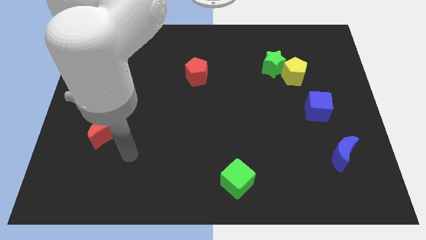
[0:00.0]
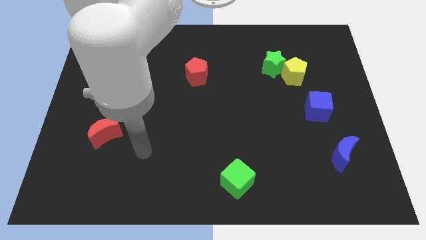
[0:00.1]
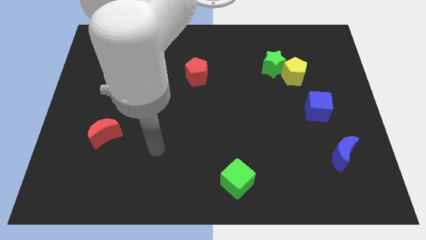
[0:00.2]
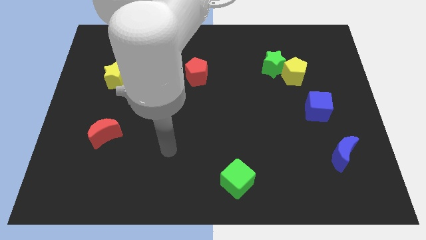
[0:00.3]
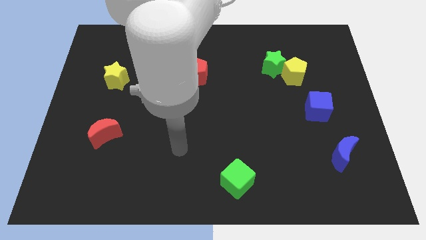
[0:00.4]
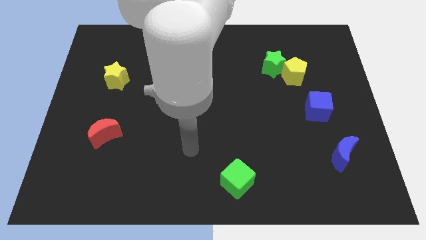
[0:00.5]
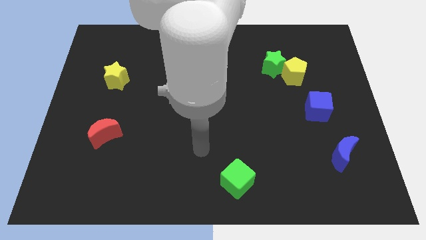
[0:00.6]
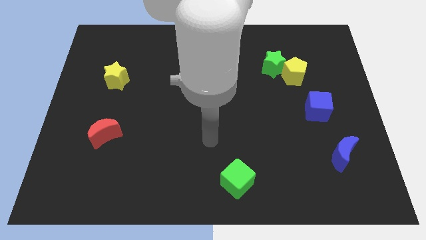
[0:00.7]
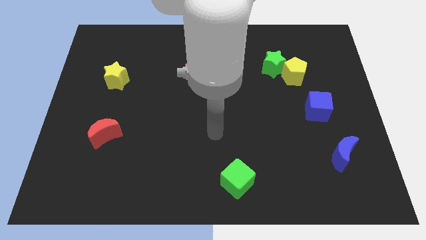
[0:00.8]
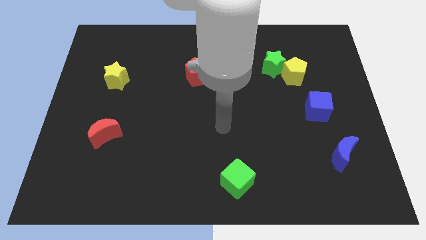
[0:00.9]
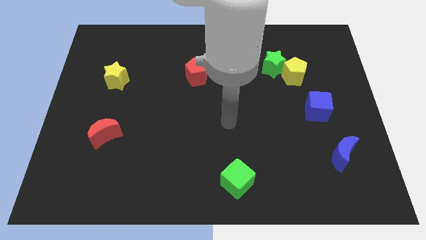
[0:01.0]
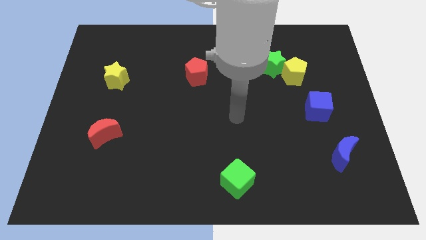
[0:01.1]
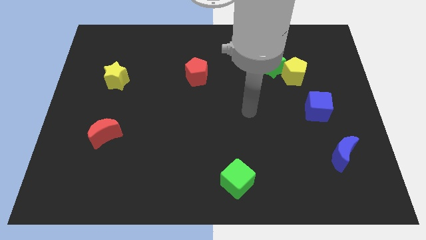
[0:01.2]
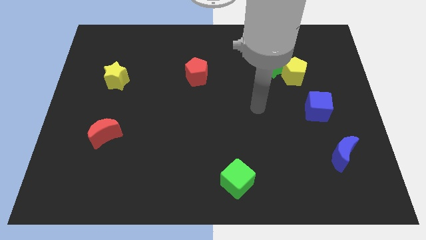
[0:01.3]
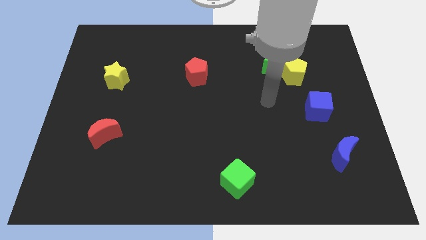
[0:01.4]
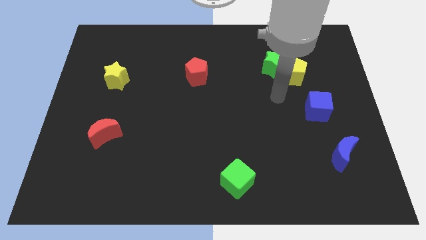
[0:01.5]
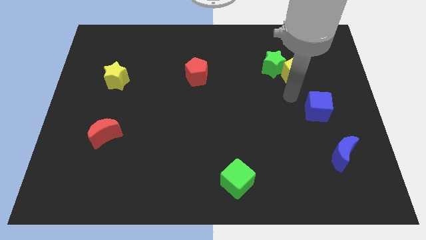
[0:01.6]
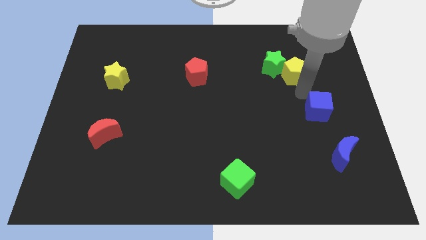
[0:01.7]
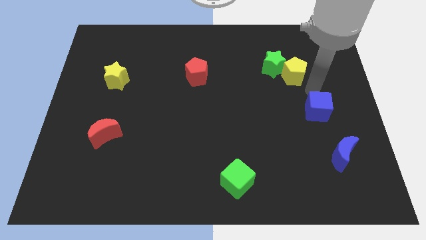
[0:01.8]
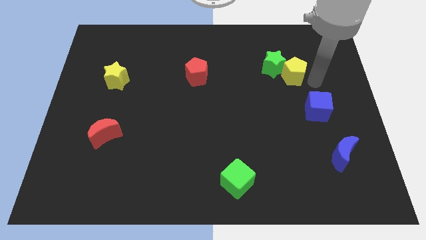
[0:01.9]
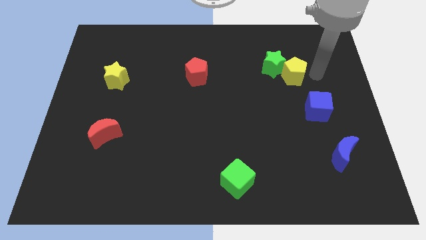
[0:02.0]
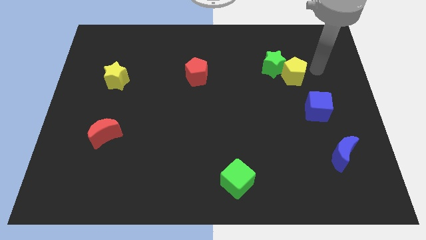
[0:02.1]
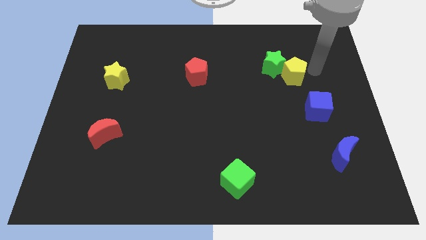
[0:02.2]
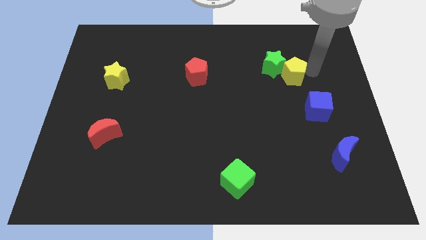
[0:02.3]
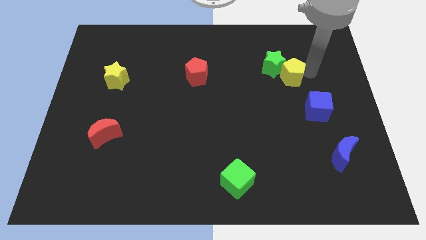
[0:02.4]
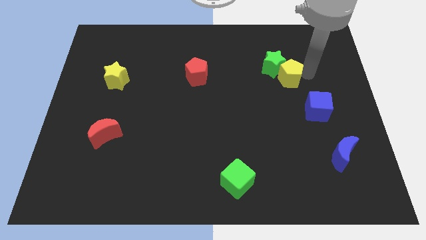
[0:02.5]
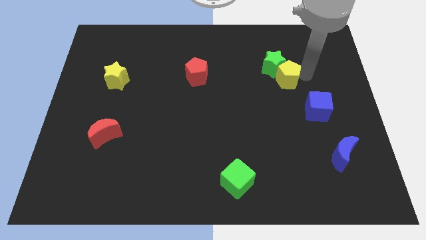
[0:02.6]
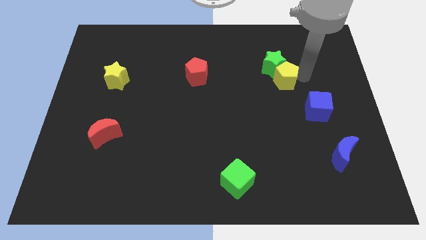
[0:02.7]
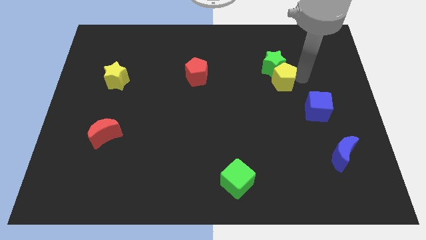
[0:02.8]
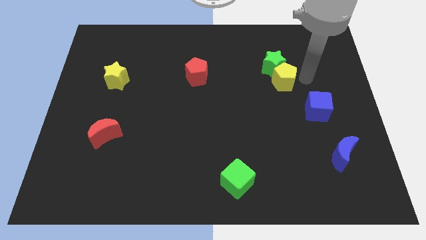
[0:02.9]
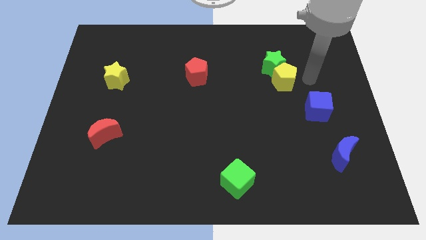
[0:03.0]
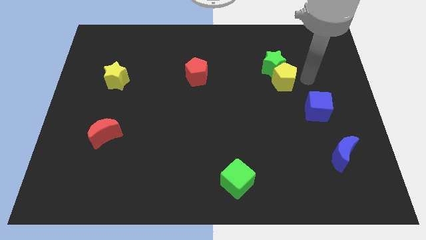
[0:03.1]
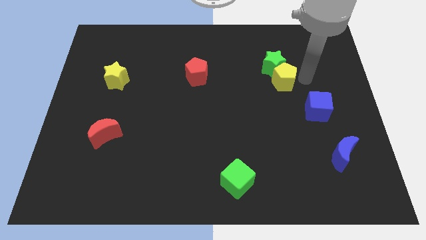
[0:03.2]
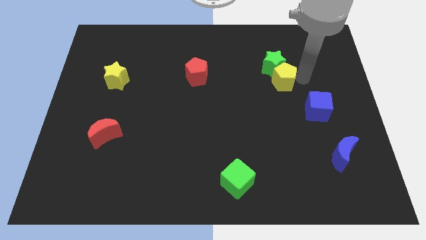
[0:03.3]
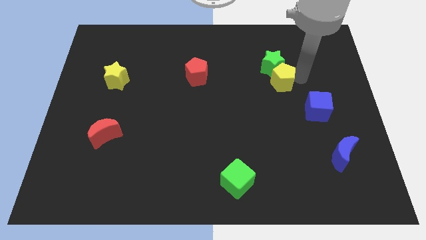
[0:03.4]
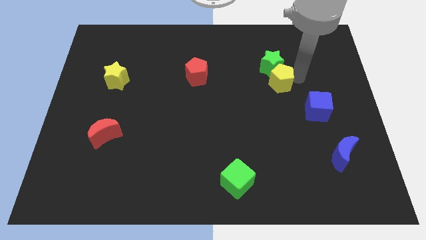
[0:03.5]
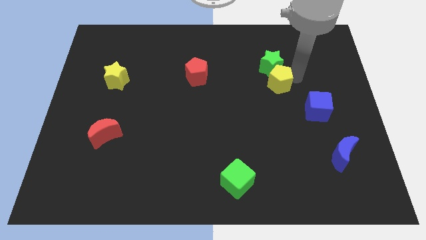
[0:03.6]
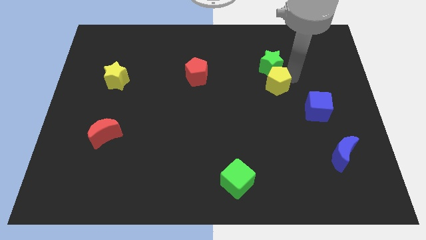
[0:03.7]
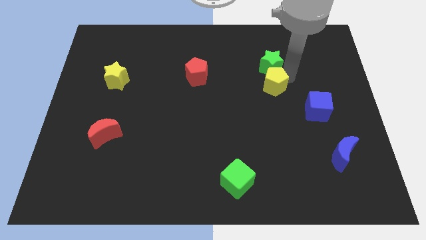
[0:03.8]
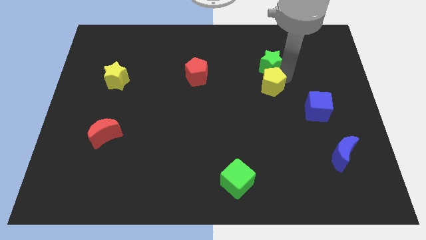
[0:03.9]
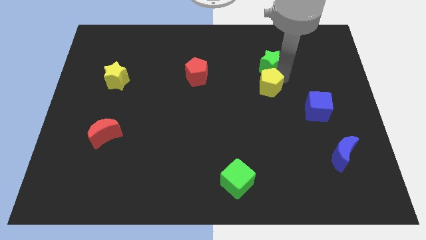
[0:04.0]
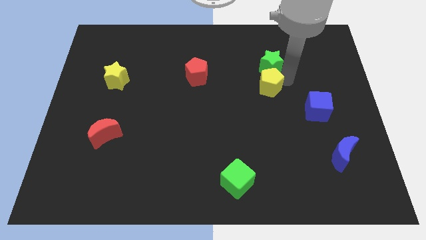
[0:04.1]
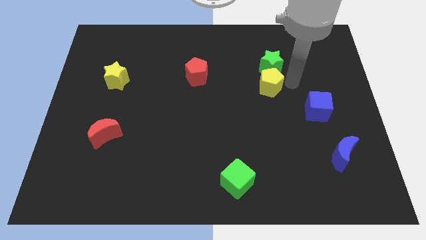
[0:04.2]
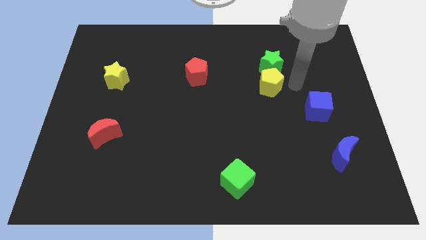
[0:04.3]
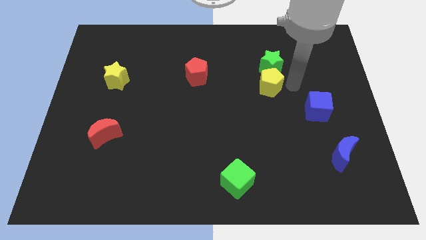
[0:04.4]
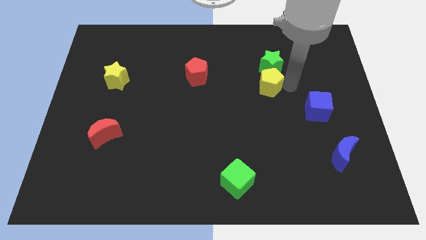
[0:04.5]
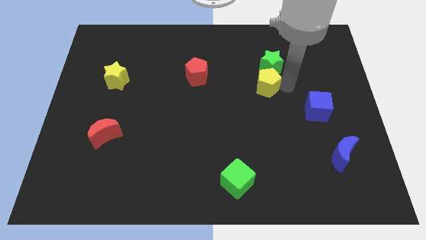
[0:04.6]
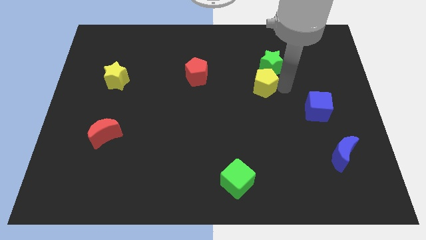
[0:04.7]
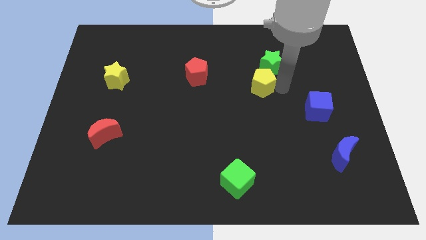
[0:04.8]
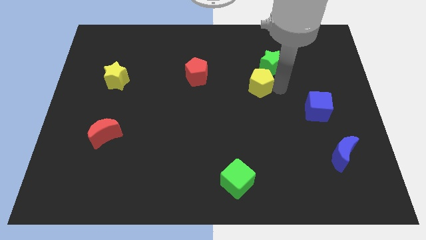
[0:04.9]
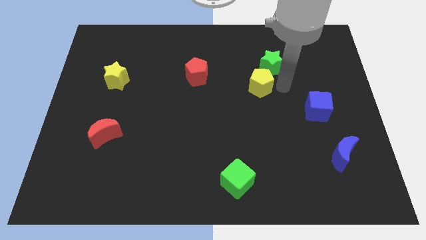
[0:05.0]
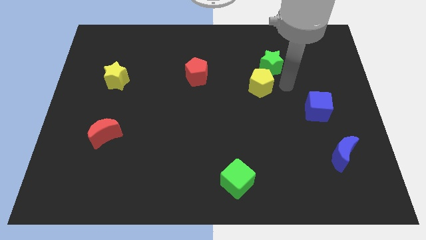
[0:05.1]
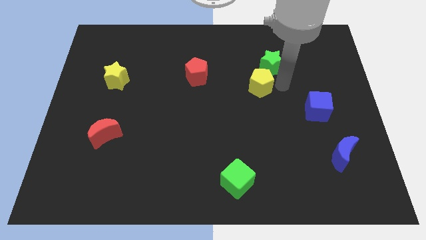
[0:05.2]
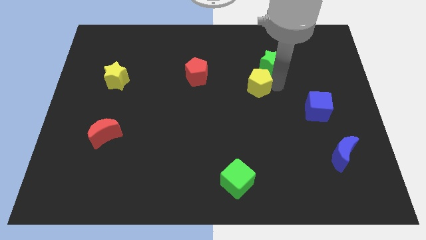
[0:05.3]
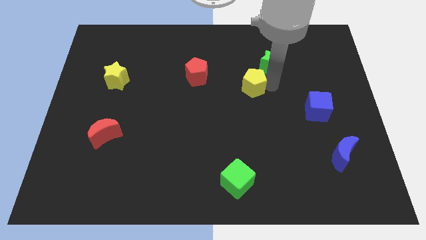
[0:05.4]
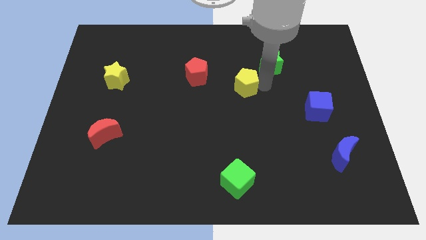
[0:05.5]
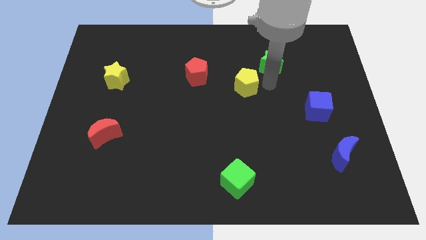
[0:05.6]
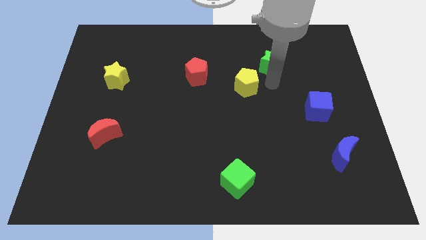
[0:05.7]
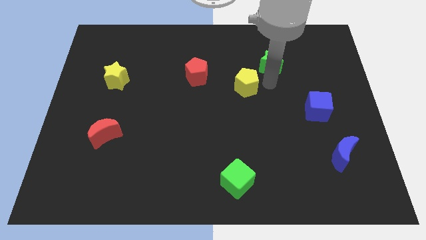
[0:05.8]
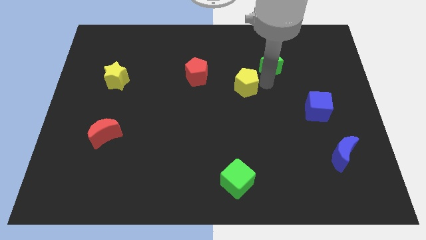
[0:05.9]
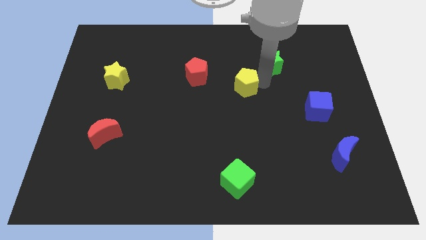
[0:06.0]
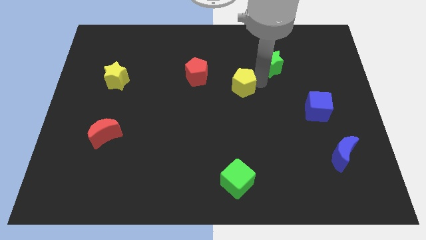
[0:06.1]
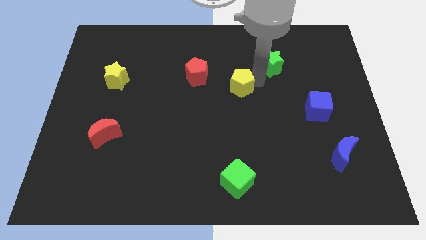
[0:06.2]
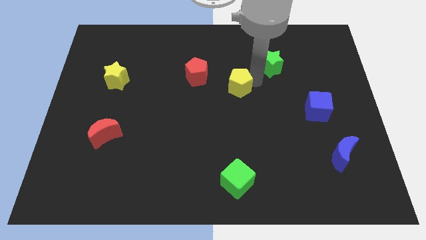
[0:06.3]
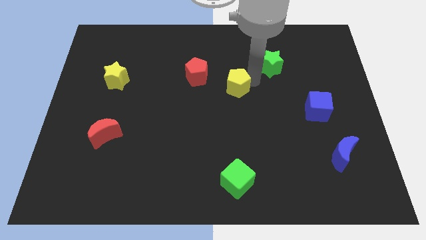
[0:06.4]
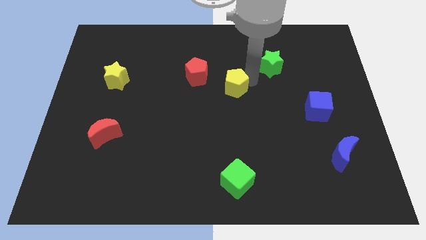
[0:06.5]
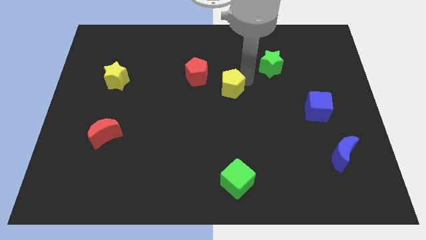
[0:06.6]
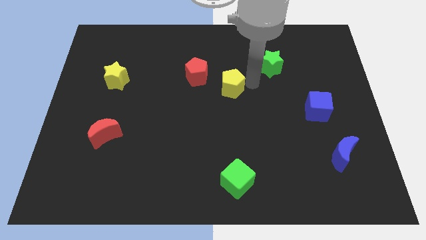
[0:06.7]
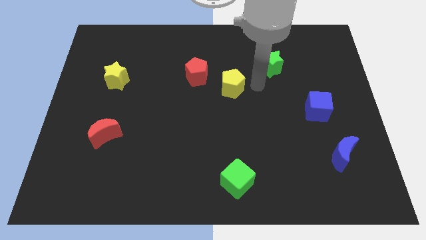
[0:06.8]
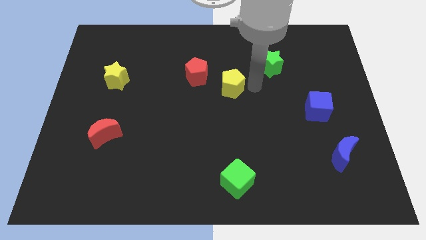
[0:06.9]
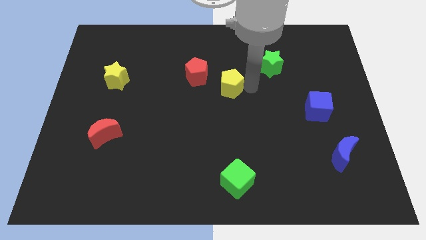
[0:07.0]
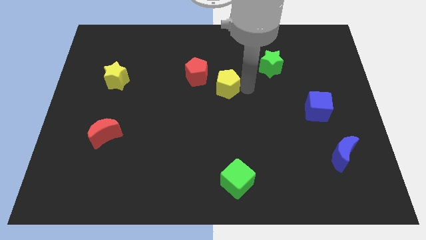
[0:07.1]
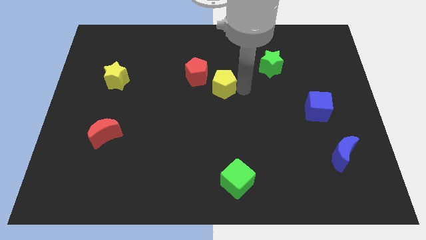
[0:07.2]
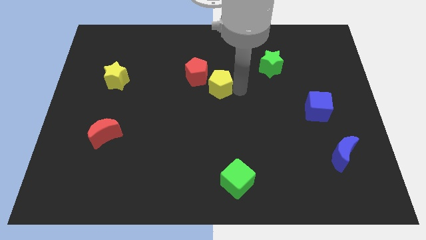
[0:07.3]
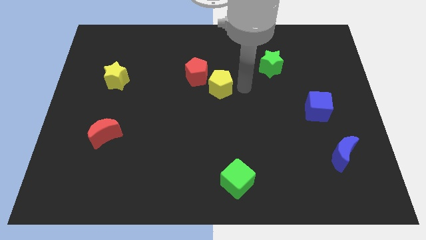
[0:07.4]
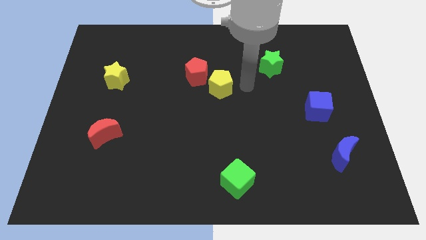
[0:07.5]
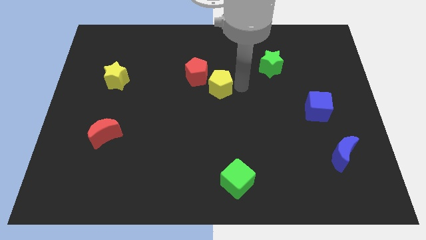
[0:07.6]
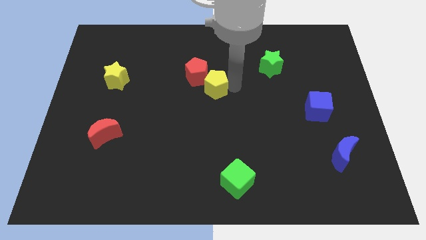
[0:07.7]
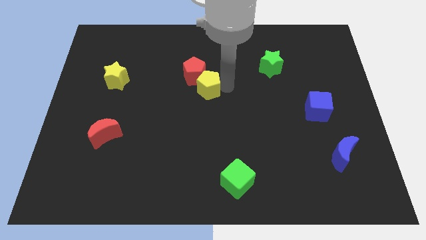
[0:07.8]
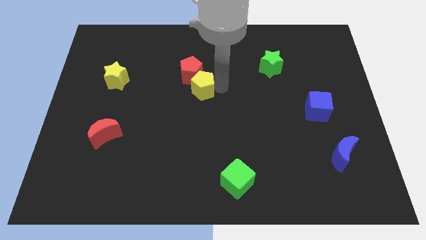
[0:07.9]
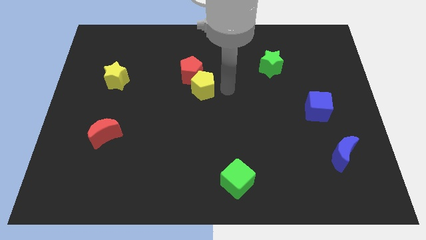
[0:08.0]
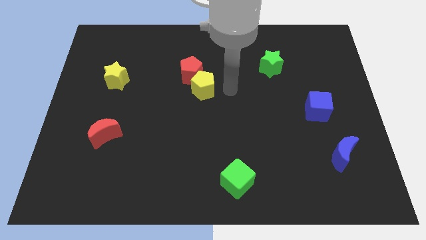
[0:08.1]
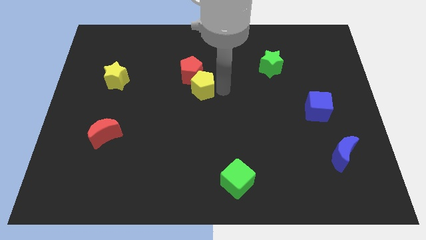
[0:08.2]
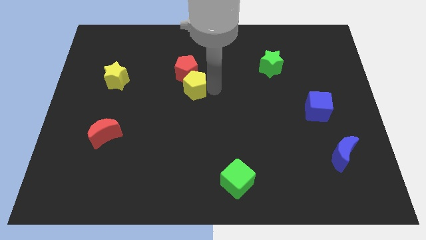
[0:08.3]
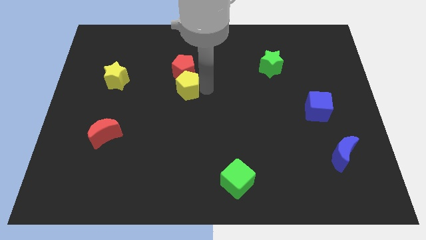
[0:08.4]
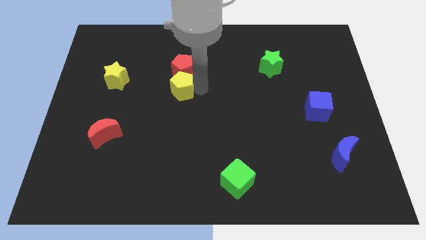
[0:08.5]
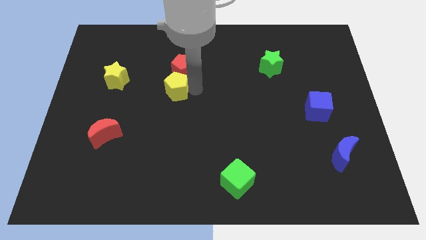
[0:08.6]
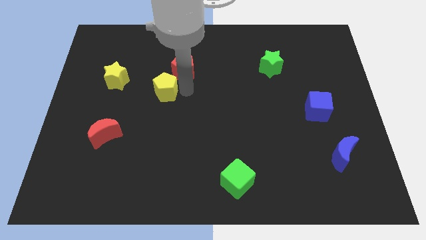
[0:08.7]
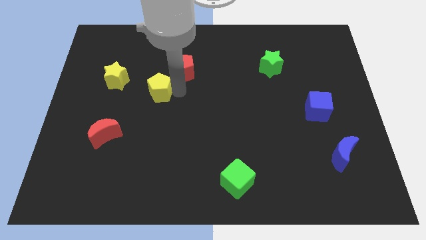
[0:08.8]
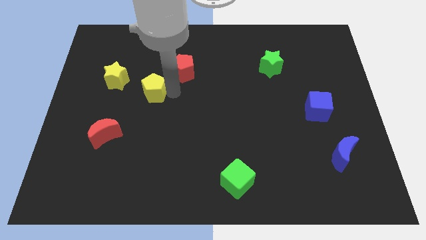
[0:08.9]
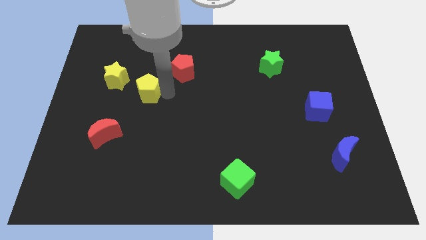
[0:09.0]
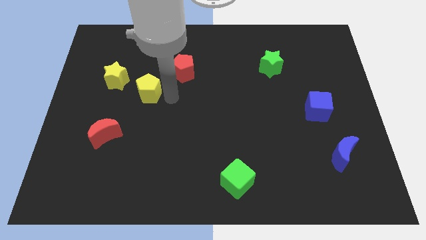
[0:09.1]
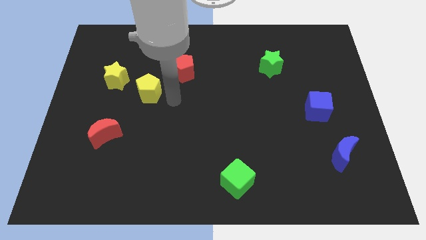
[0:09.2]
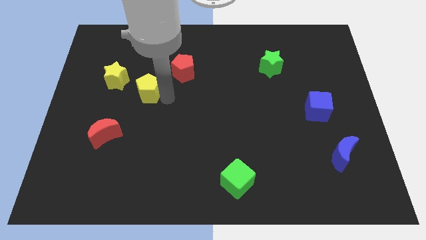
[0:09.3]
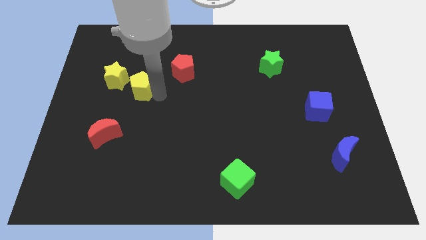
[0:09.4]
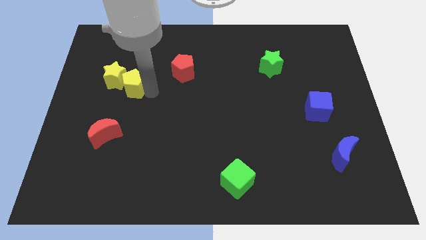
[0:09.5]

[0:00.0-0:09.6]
push the yellow pentagon towards the yellow star
